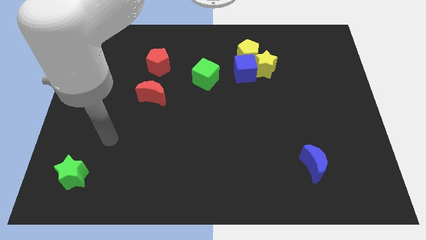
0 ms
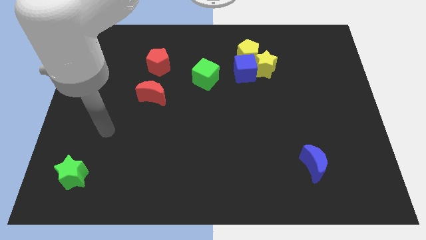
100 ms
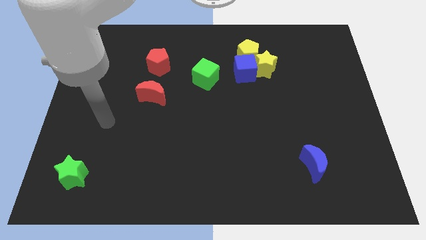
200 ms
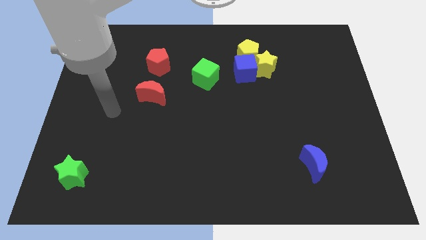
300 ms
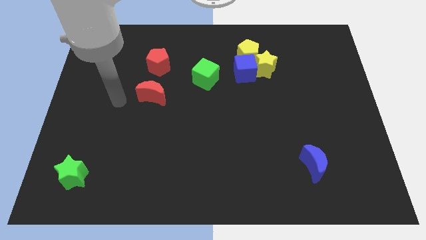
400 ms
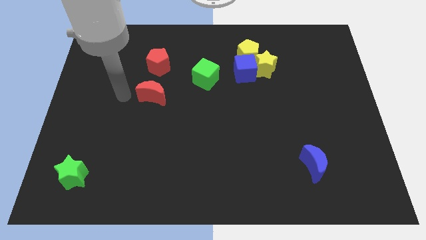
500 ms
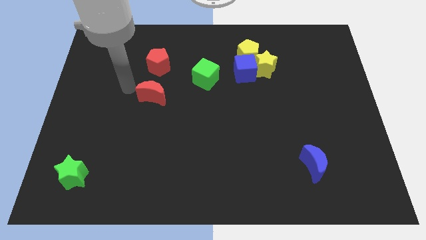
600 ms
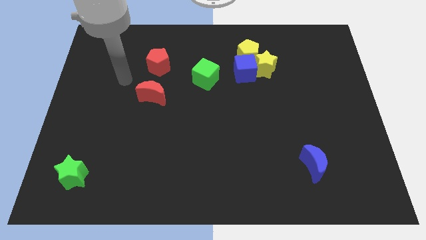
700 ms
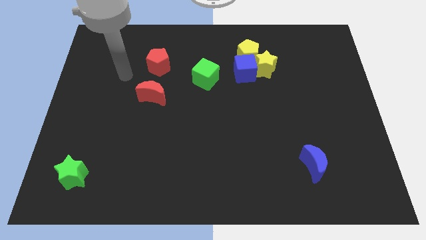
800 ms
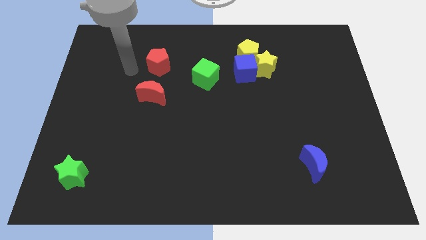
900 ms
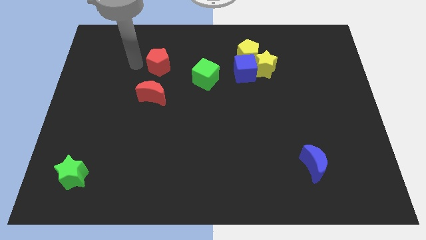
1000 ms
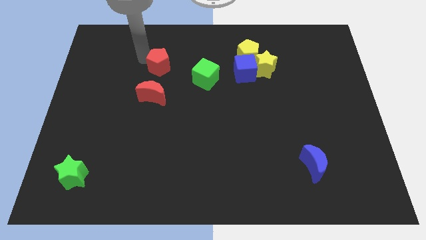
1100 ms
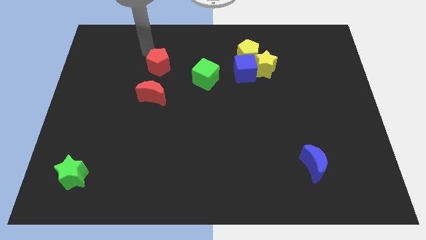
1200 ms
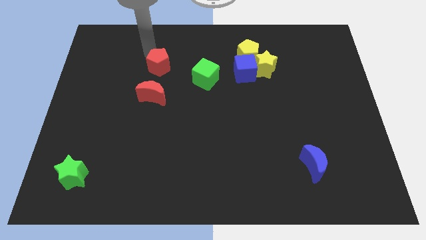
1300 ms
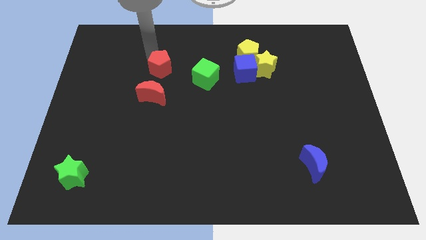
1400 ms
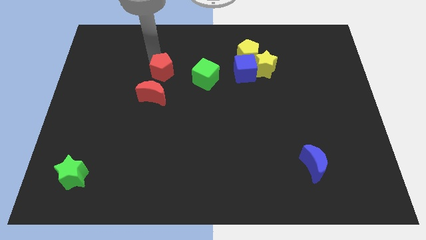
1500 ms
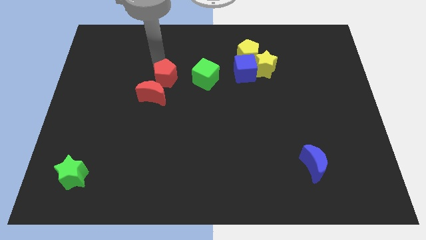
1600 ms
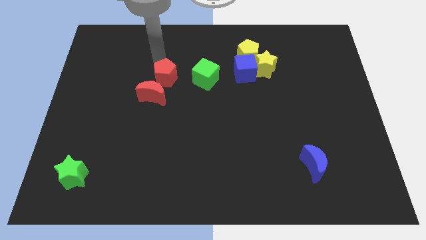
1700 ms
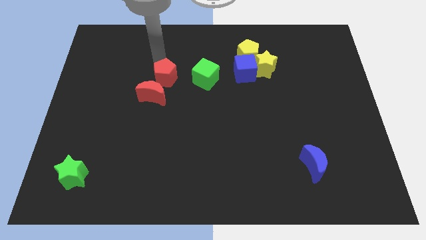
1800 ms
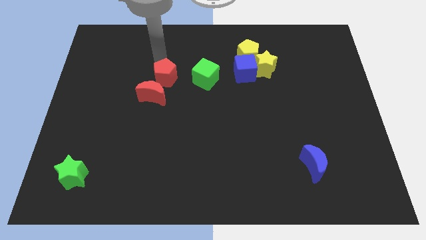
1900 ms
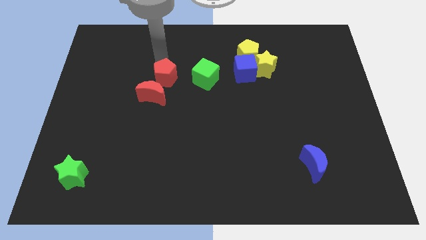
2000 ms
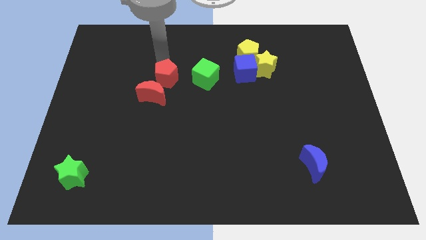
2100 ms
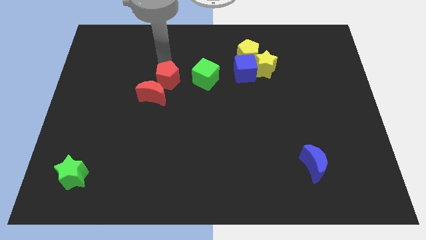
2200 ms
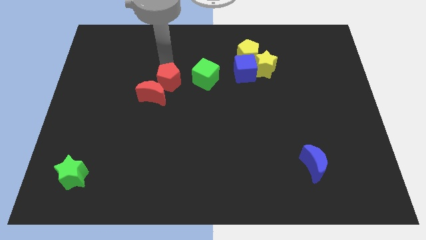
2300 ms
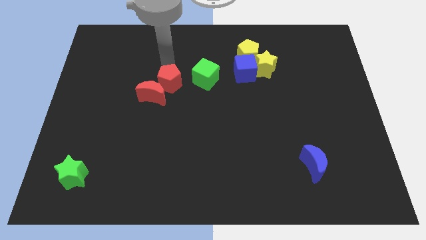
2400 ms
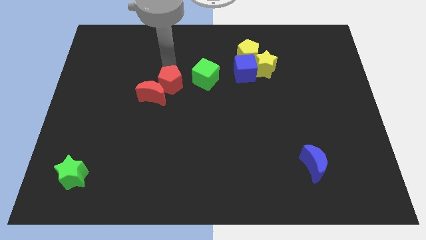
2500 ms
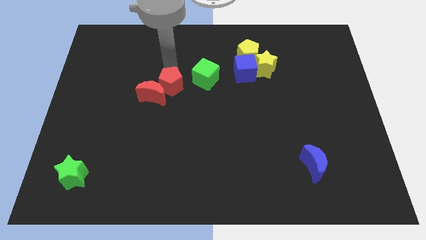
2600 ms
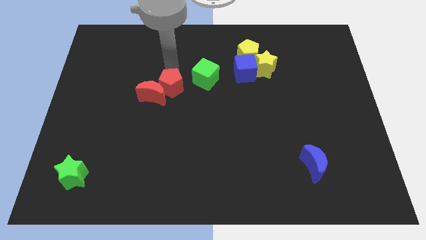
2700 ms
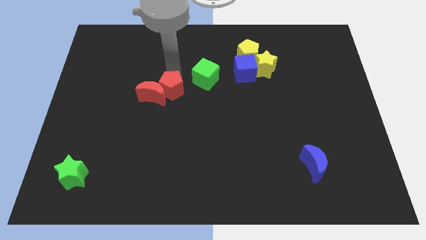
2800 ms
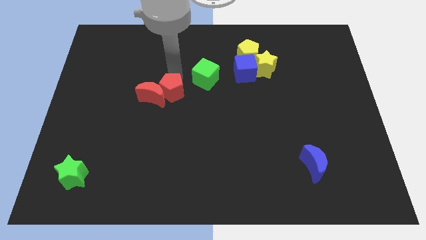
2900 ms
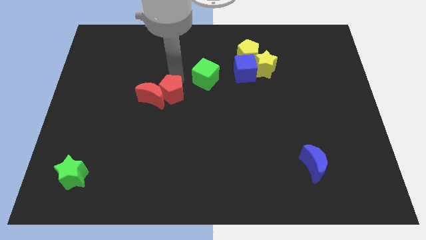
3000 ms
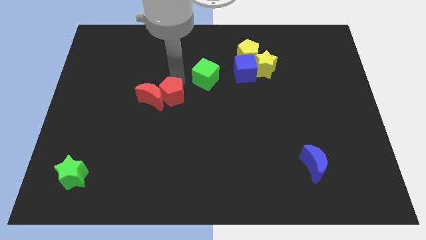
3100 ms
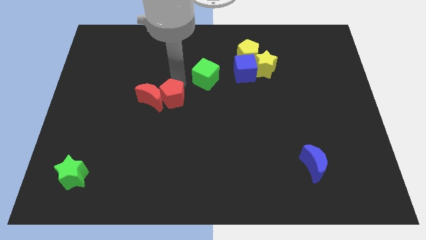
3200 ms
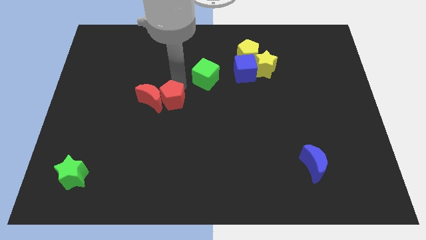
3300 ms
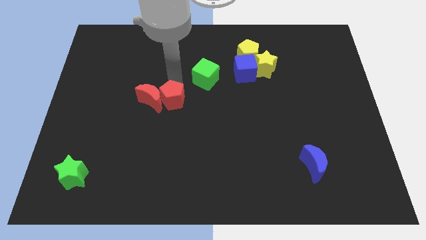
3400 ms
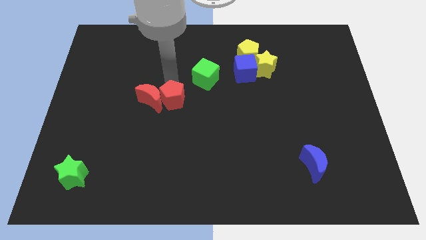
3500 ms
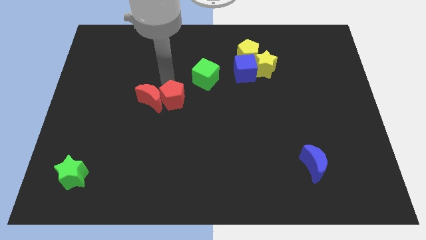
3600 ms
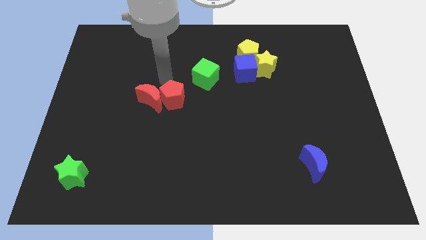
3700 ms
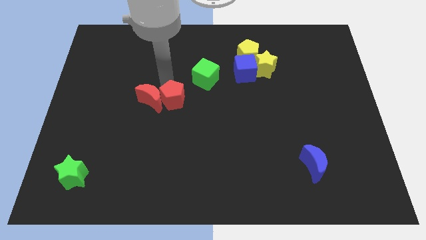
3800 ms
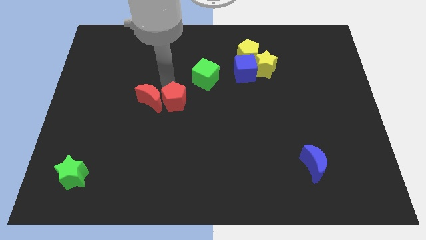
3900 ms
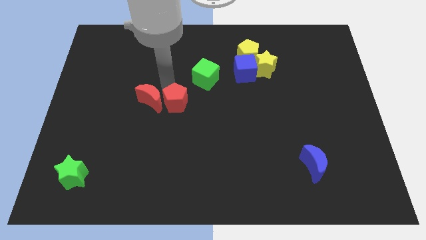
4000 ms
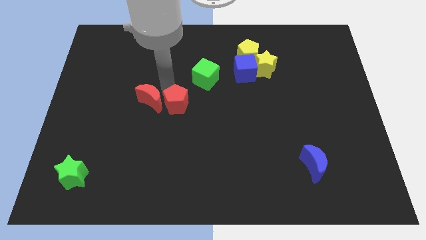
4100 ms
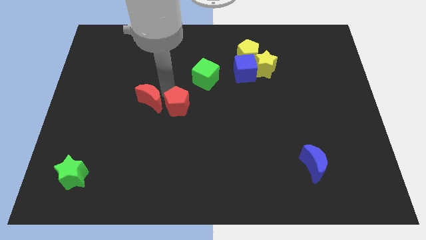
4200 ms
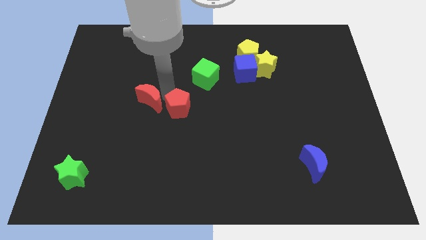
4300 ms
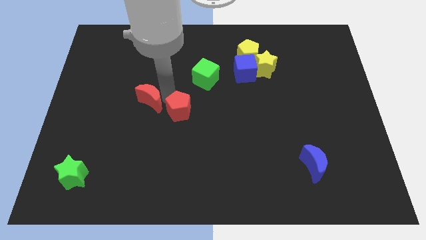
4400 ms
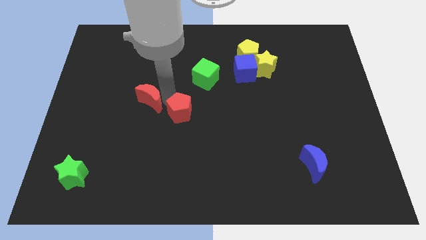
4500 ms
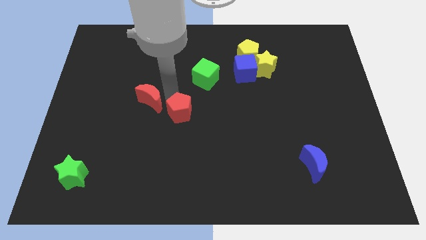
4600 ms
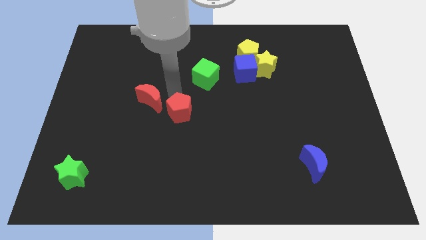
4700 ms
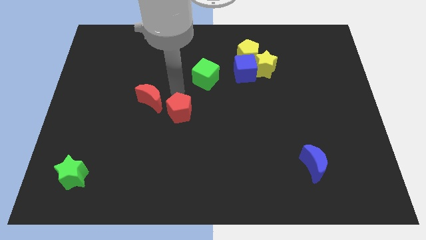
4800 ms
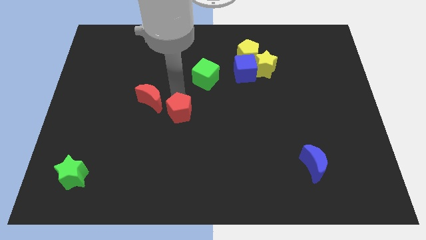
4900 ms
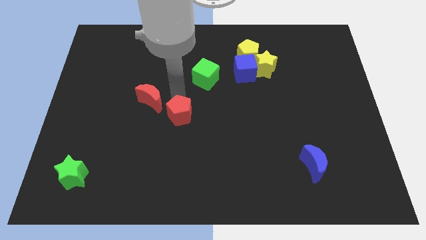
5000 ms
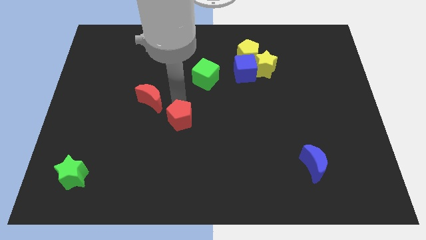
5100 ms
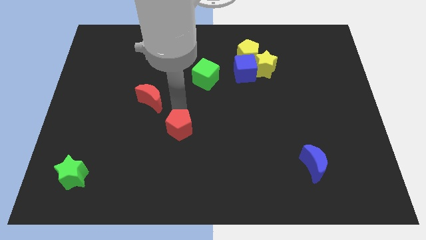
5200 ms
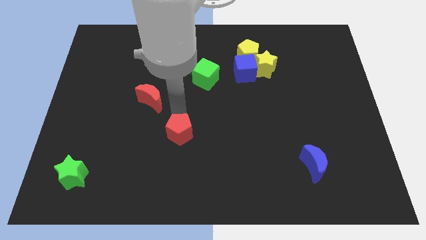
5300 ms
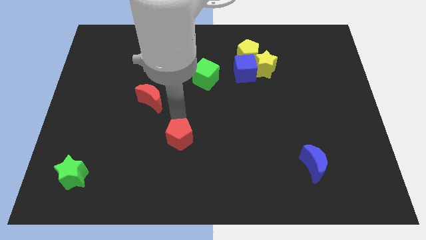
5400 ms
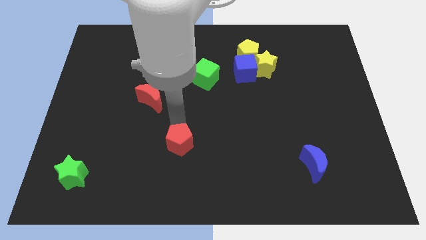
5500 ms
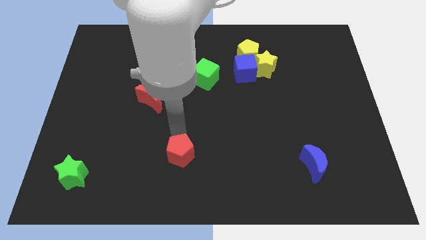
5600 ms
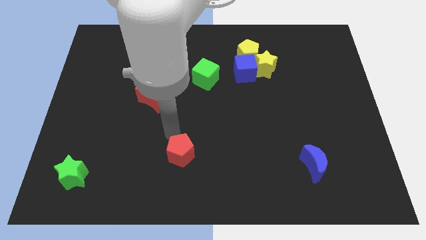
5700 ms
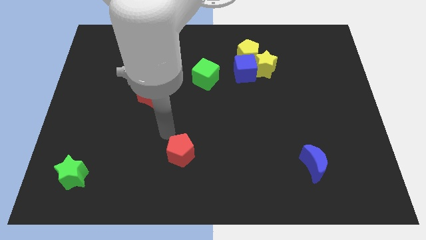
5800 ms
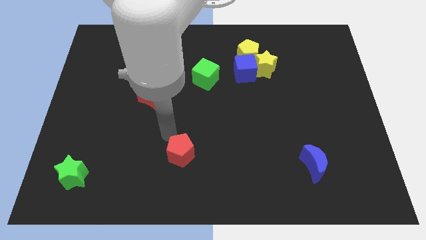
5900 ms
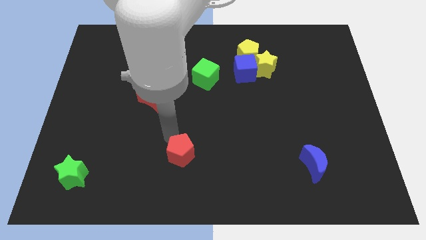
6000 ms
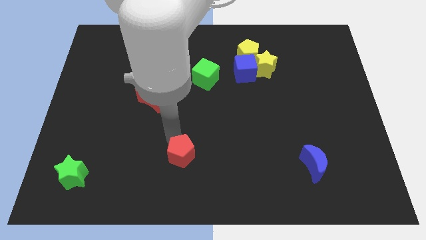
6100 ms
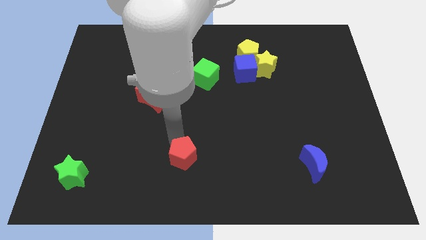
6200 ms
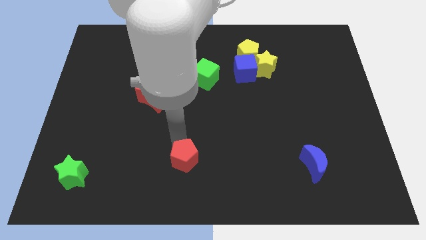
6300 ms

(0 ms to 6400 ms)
push the red pentagon to the bottom side
